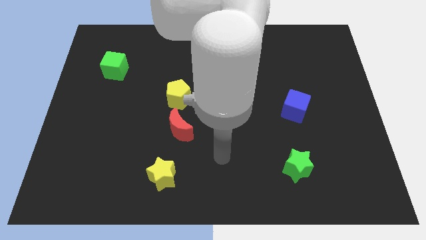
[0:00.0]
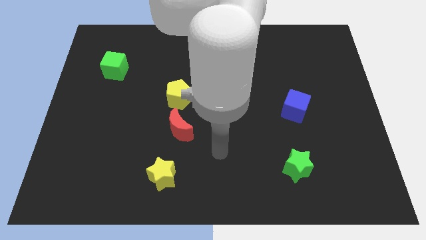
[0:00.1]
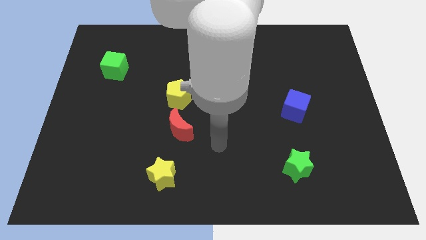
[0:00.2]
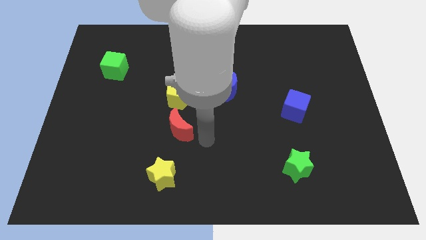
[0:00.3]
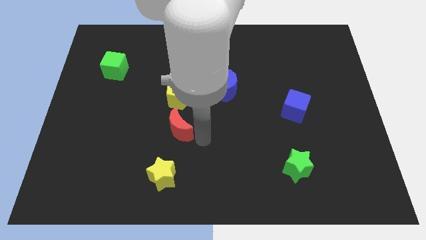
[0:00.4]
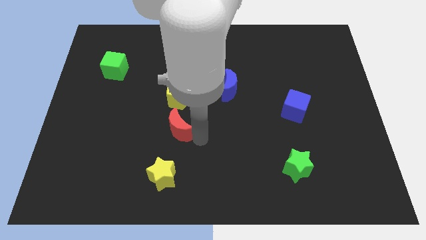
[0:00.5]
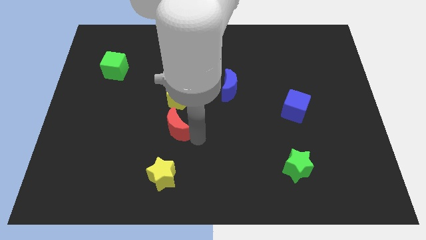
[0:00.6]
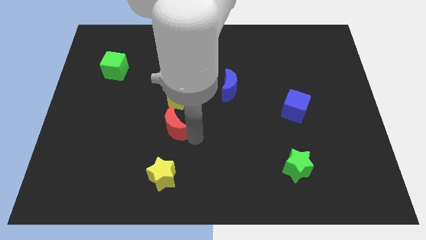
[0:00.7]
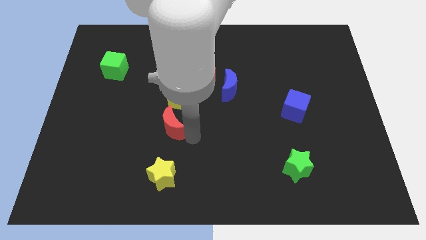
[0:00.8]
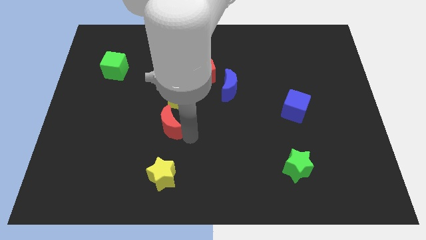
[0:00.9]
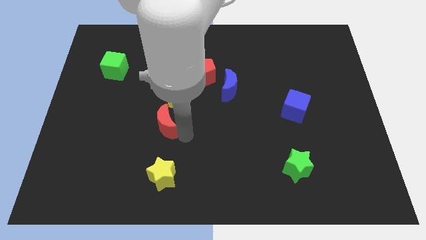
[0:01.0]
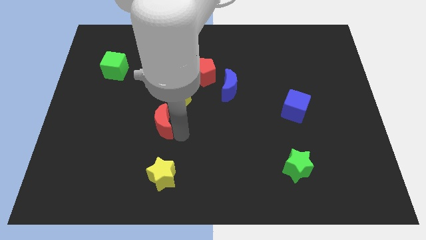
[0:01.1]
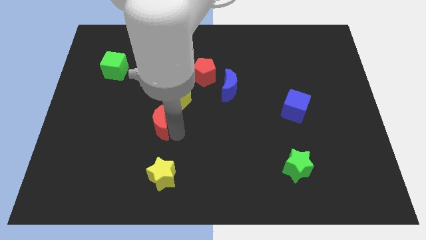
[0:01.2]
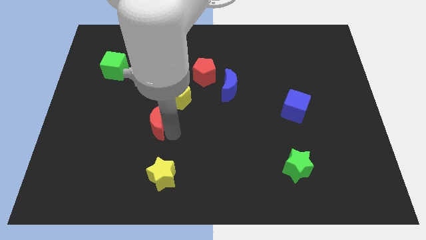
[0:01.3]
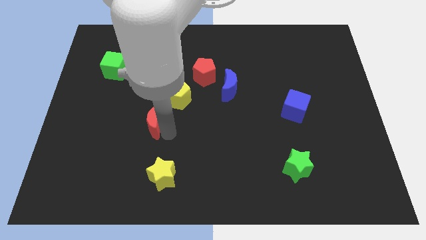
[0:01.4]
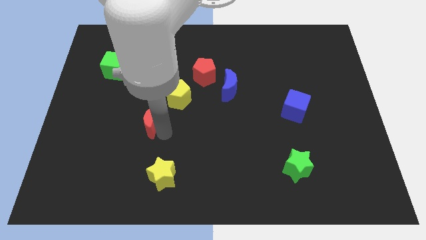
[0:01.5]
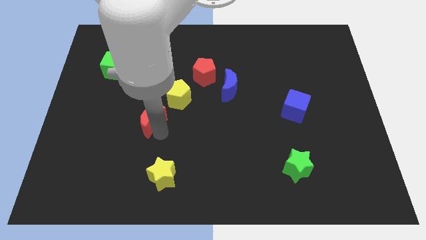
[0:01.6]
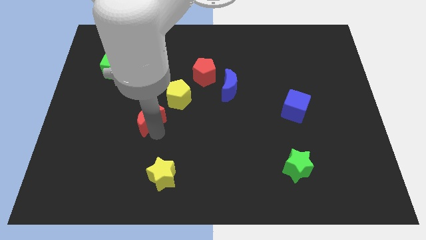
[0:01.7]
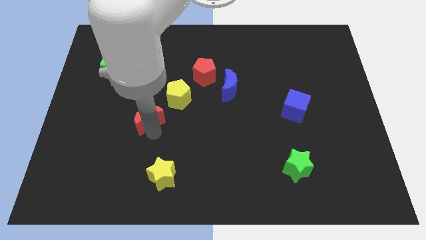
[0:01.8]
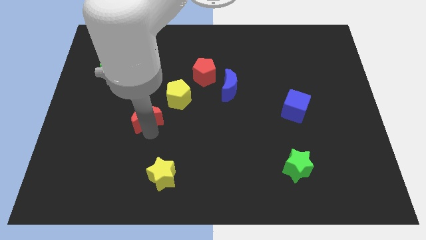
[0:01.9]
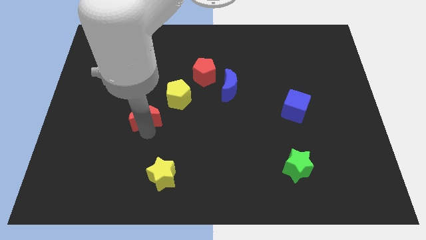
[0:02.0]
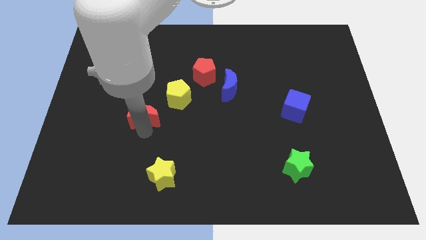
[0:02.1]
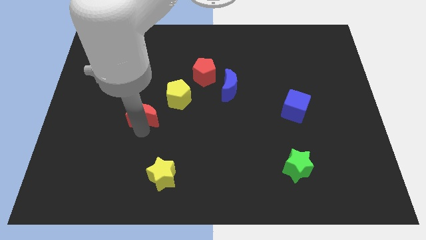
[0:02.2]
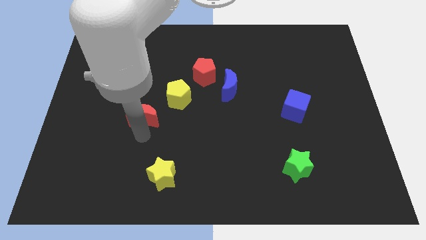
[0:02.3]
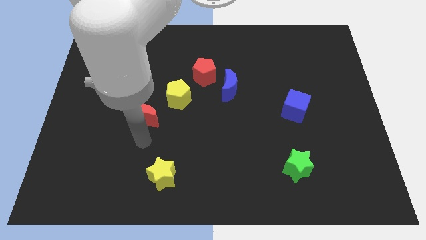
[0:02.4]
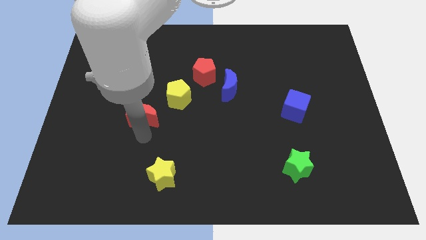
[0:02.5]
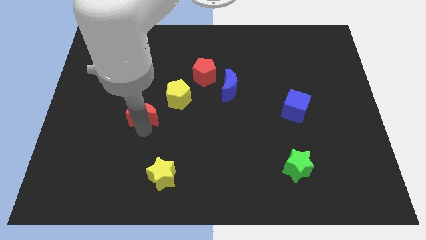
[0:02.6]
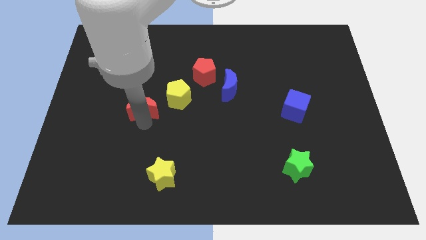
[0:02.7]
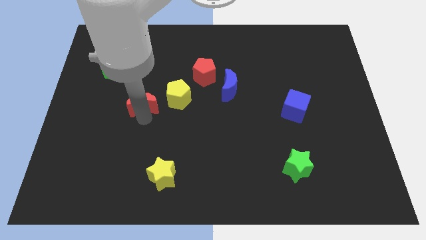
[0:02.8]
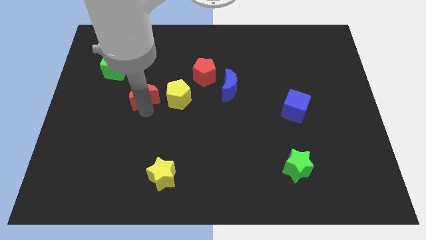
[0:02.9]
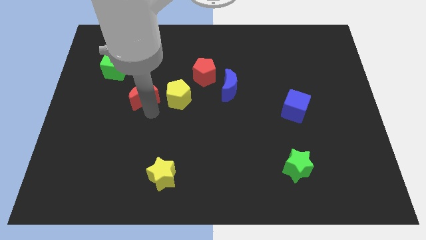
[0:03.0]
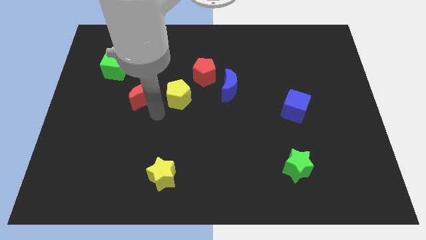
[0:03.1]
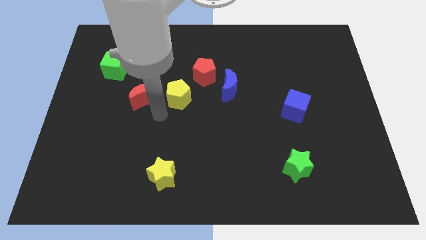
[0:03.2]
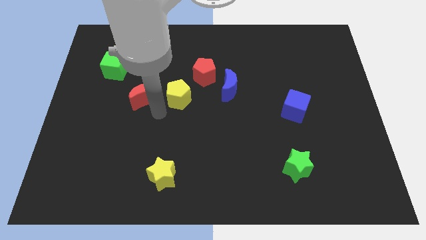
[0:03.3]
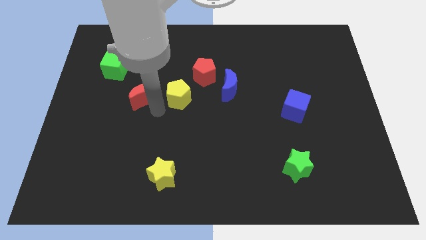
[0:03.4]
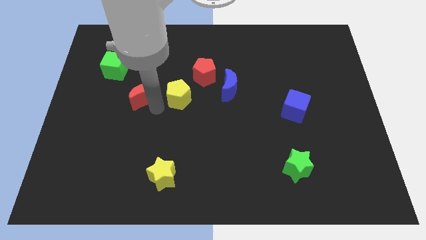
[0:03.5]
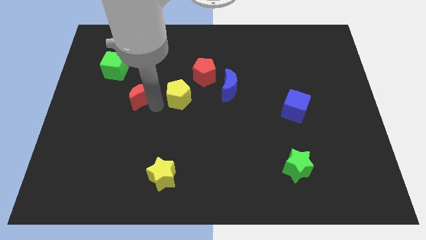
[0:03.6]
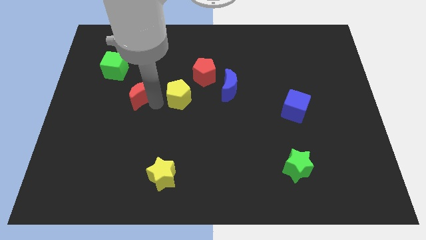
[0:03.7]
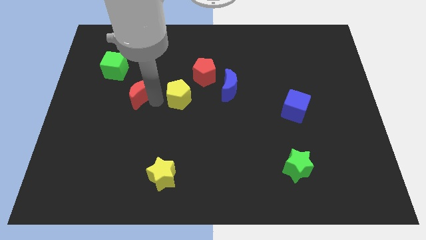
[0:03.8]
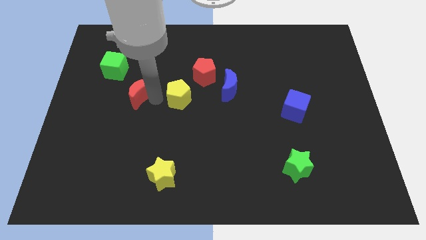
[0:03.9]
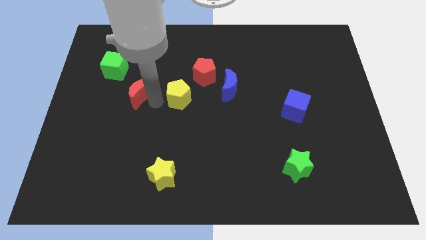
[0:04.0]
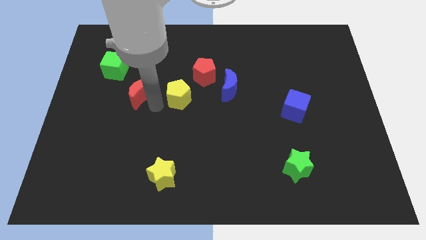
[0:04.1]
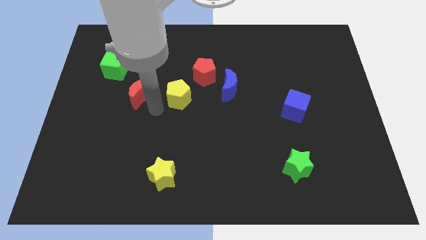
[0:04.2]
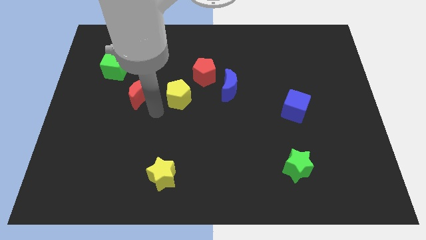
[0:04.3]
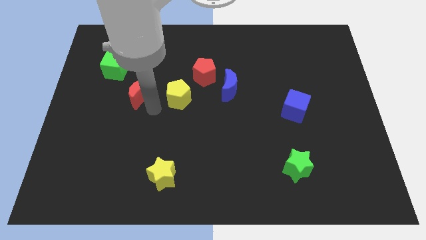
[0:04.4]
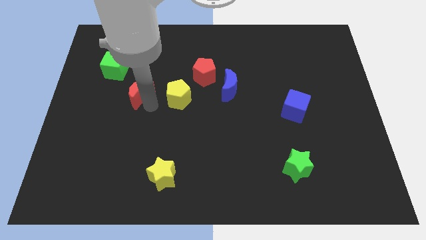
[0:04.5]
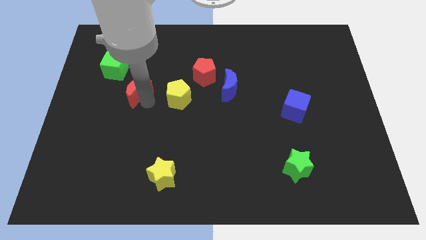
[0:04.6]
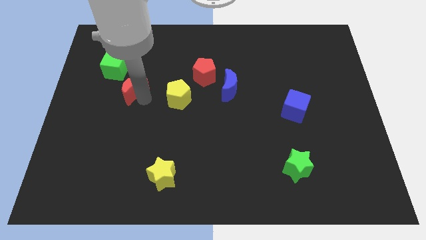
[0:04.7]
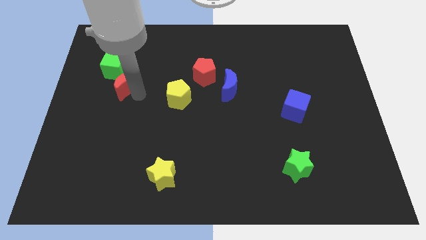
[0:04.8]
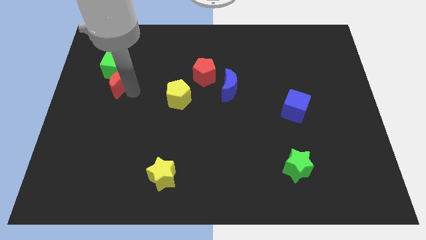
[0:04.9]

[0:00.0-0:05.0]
move the red moon to the green cube

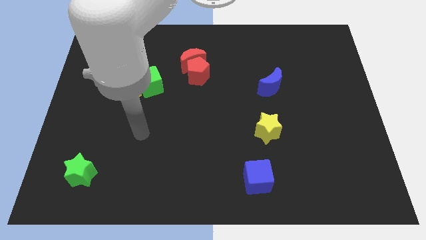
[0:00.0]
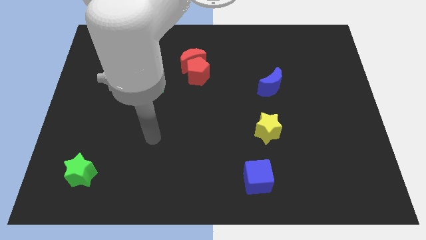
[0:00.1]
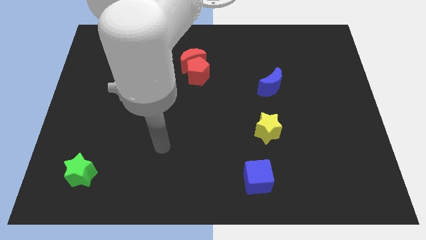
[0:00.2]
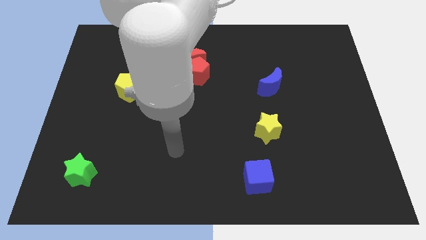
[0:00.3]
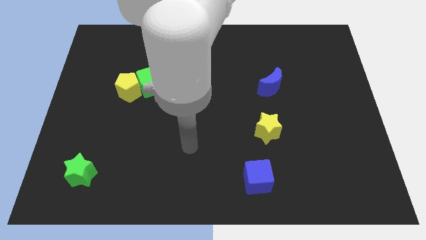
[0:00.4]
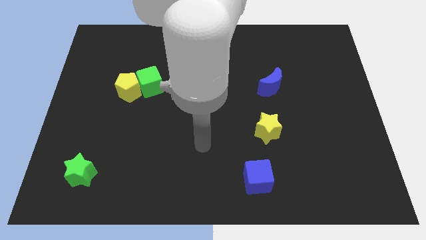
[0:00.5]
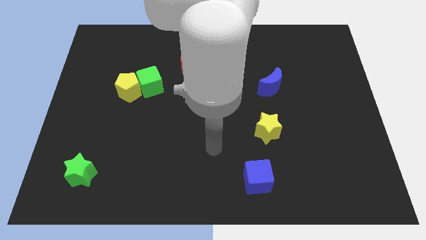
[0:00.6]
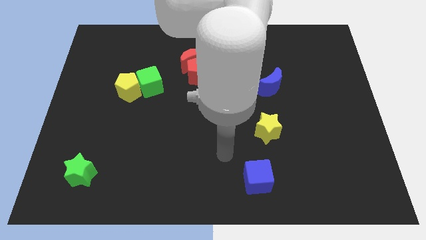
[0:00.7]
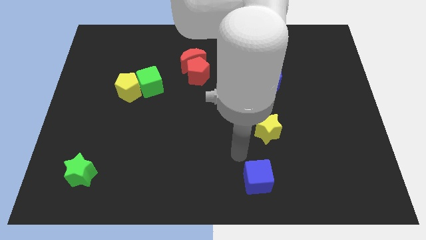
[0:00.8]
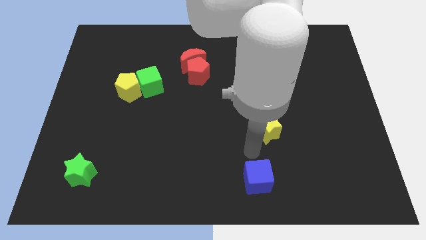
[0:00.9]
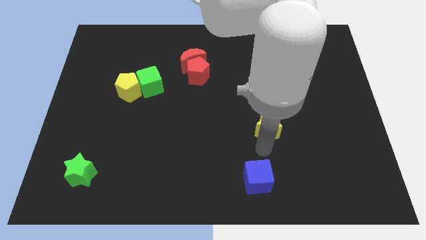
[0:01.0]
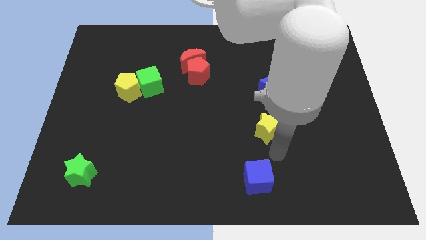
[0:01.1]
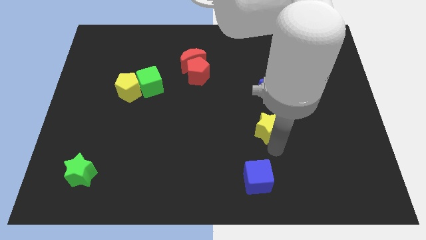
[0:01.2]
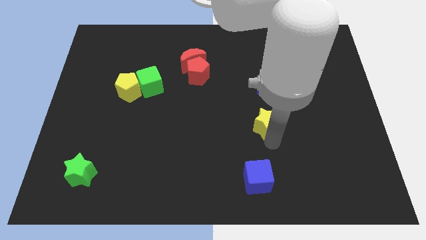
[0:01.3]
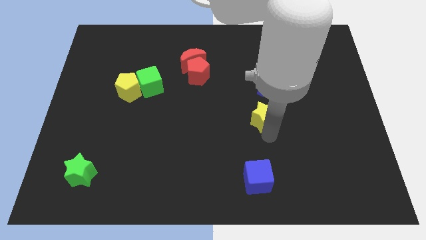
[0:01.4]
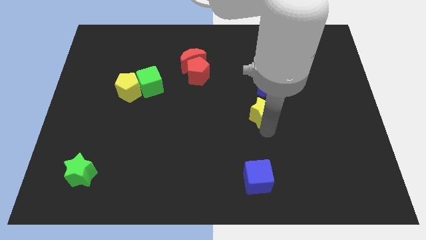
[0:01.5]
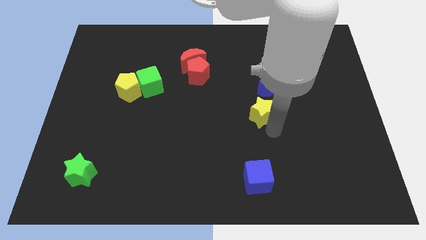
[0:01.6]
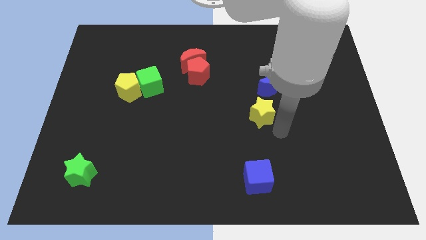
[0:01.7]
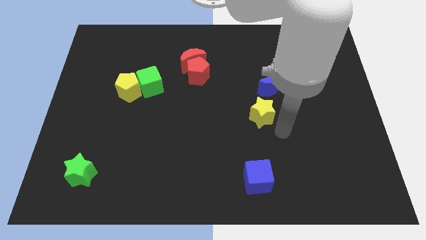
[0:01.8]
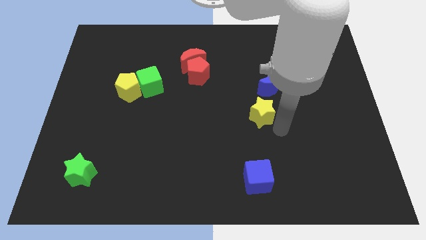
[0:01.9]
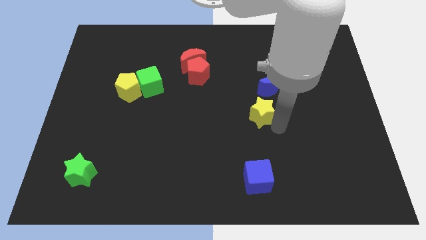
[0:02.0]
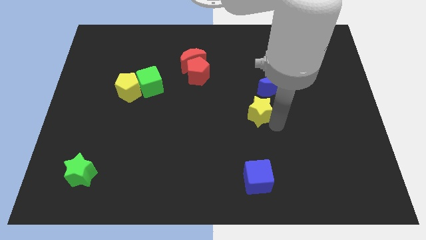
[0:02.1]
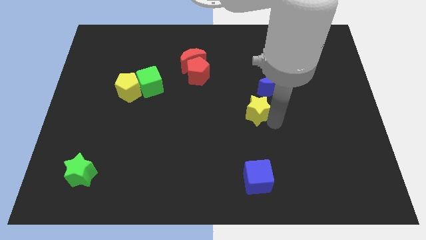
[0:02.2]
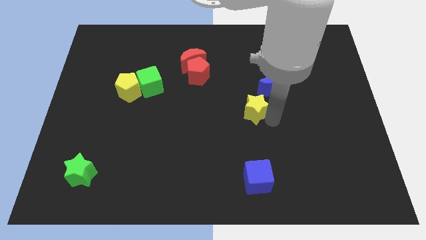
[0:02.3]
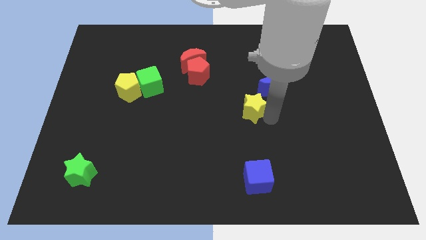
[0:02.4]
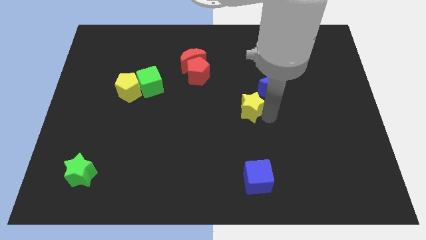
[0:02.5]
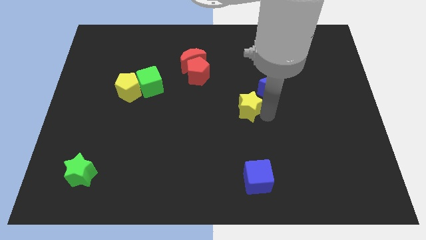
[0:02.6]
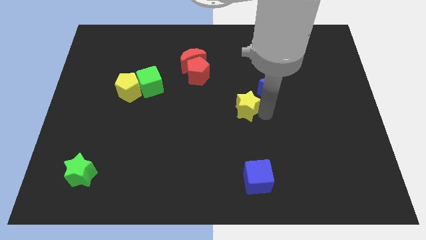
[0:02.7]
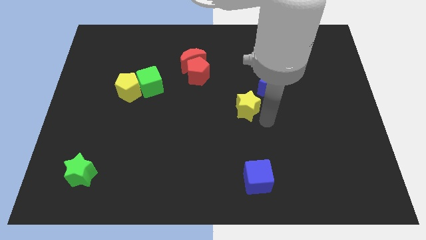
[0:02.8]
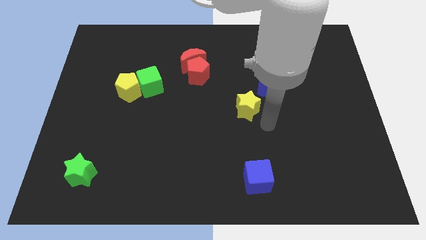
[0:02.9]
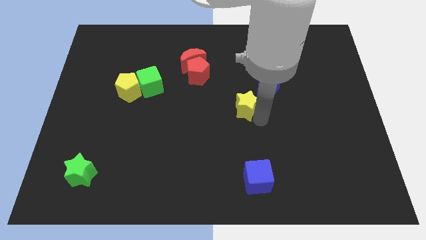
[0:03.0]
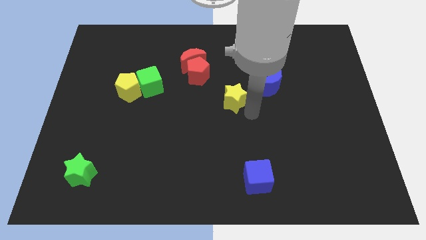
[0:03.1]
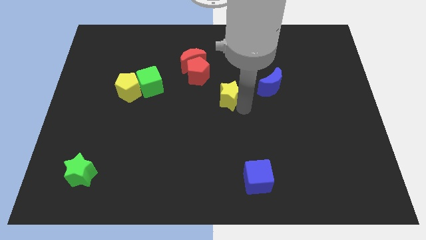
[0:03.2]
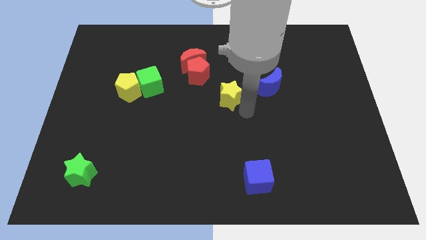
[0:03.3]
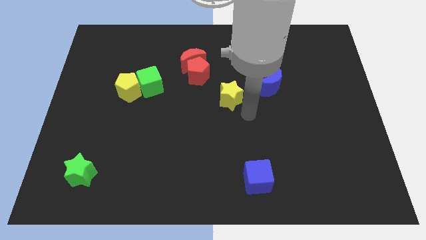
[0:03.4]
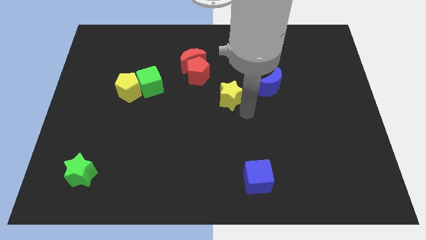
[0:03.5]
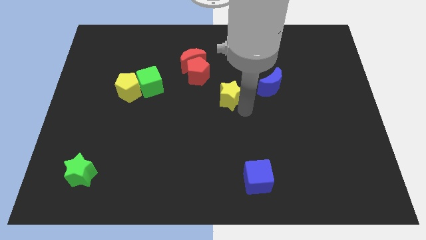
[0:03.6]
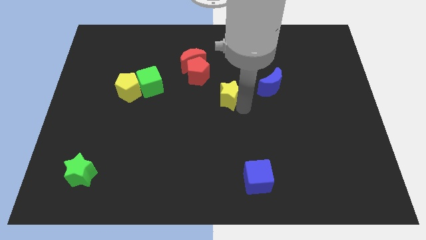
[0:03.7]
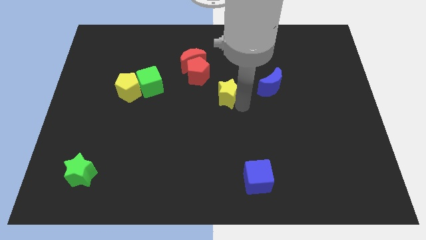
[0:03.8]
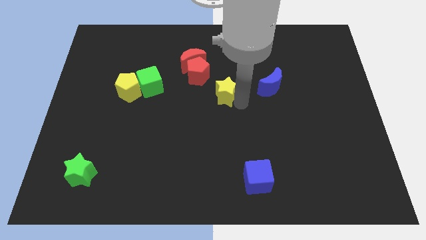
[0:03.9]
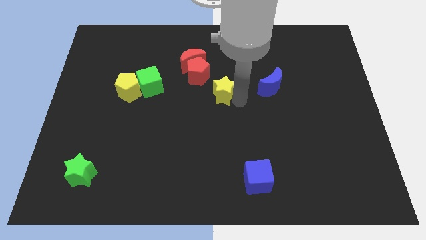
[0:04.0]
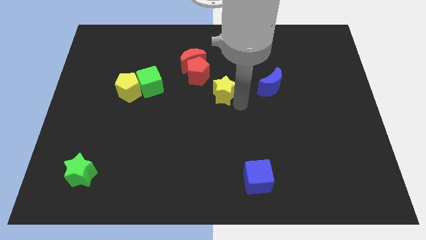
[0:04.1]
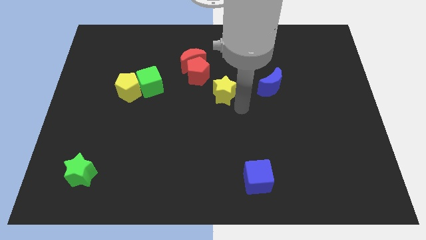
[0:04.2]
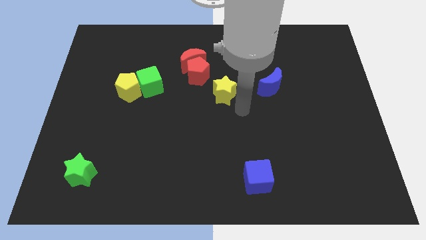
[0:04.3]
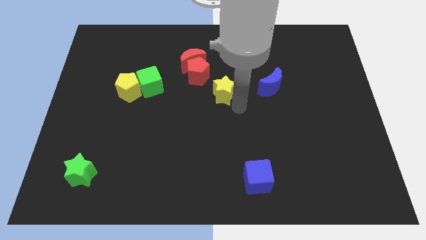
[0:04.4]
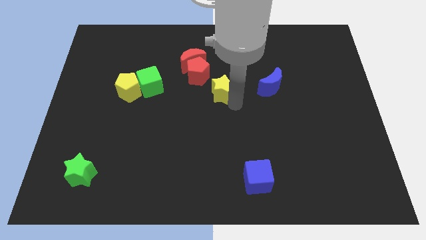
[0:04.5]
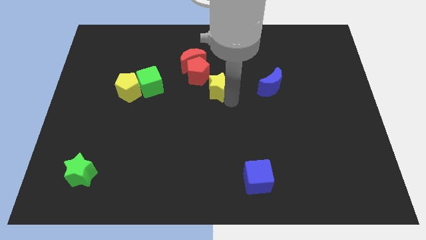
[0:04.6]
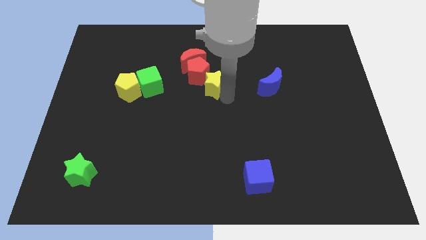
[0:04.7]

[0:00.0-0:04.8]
move the yellow star next to the red pentagon
